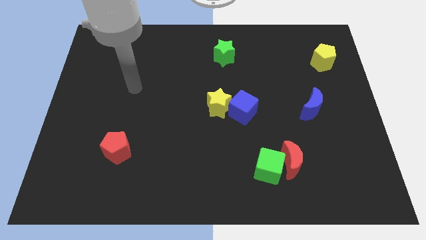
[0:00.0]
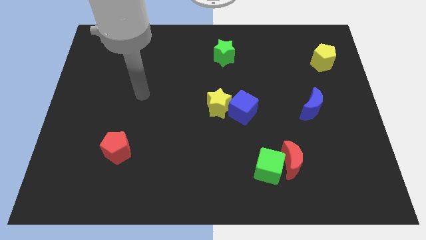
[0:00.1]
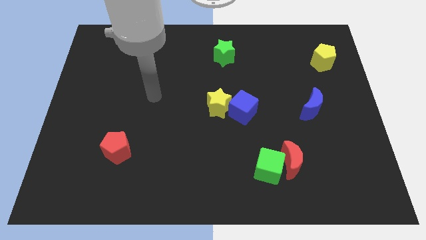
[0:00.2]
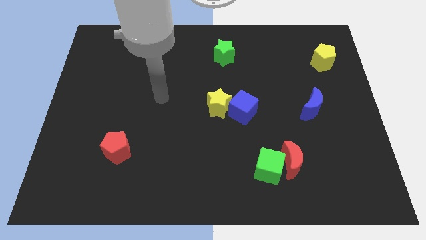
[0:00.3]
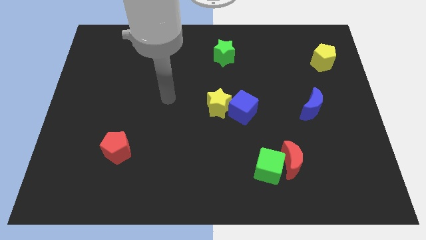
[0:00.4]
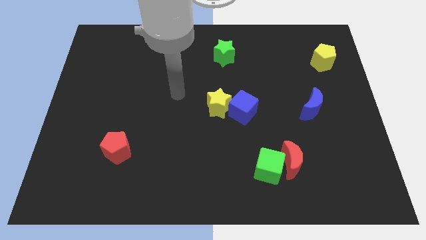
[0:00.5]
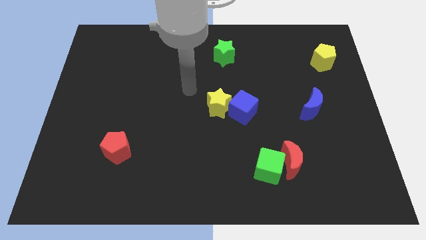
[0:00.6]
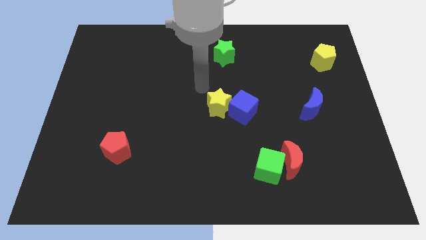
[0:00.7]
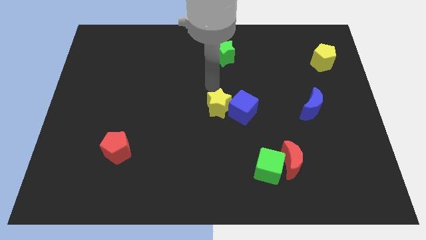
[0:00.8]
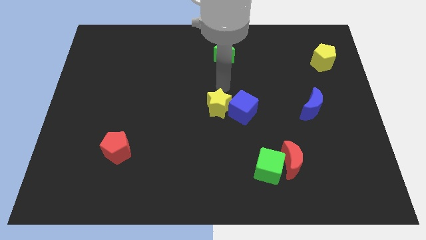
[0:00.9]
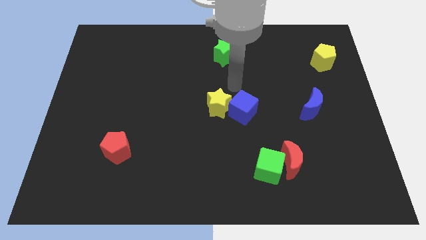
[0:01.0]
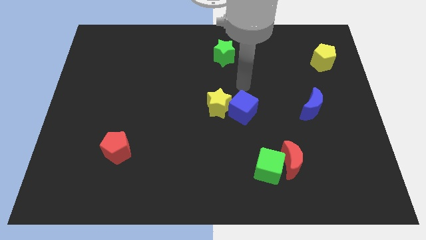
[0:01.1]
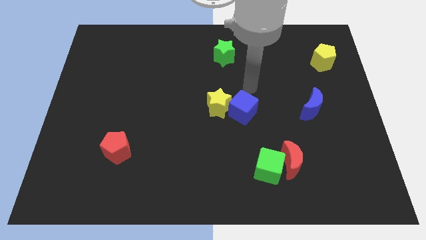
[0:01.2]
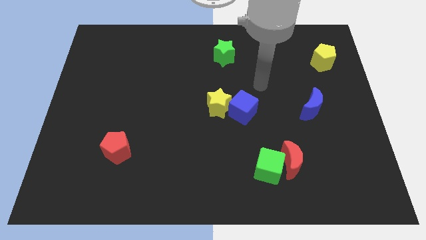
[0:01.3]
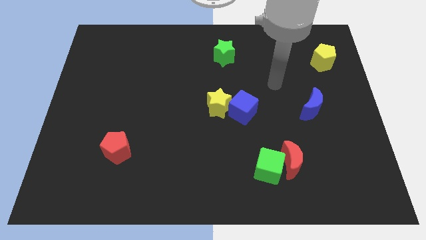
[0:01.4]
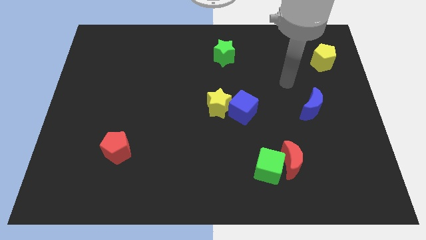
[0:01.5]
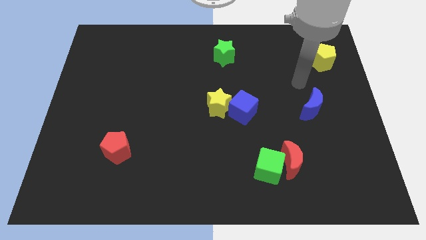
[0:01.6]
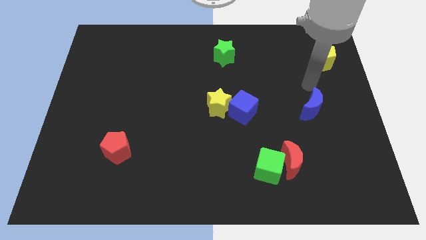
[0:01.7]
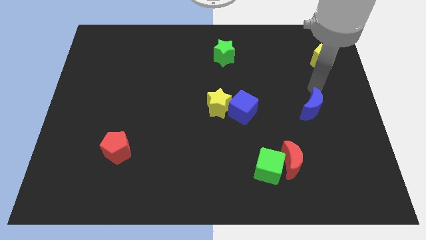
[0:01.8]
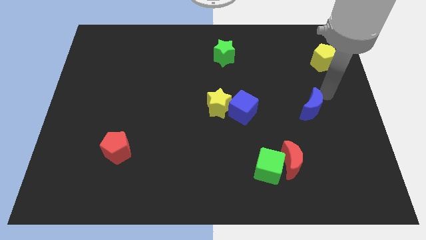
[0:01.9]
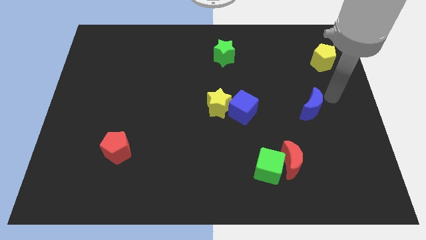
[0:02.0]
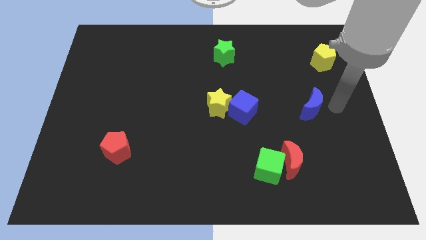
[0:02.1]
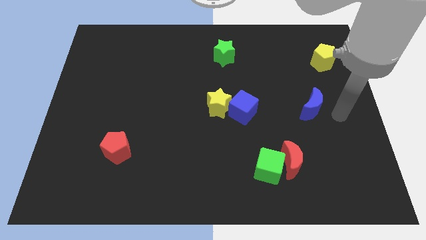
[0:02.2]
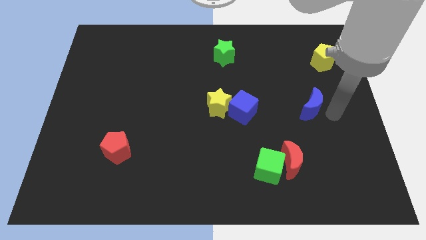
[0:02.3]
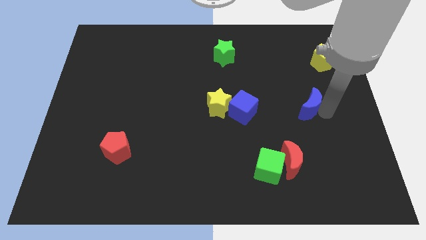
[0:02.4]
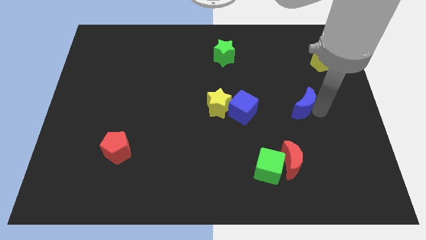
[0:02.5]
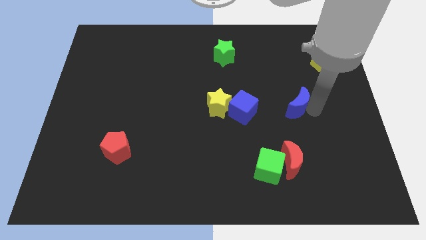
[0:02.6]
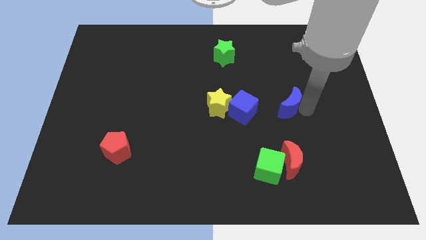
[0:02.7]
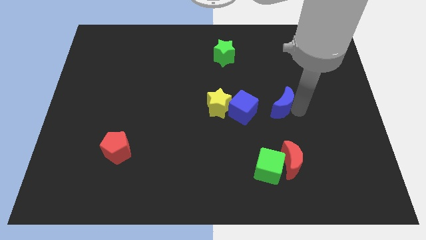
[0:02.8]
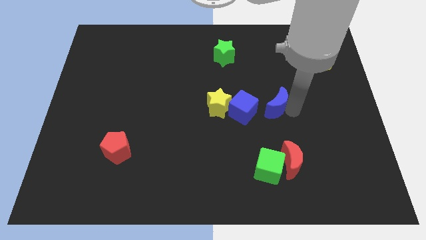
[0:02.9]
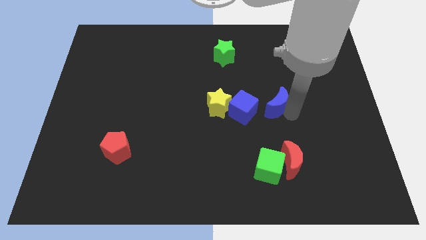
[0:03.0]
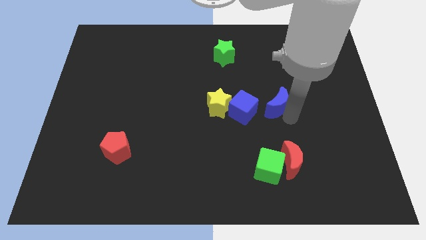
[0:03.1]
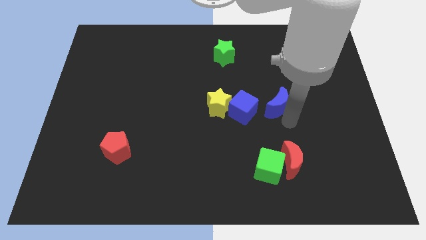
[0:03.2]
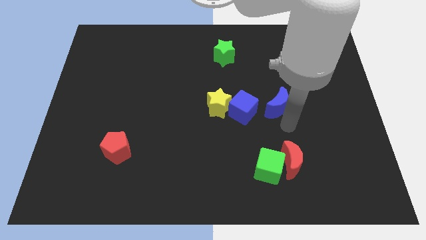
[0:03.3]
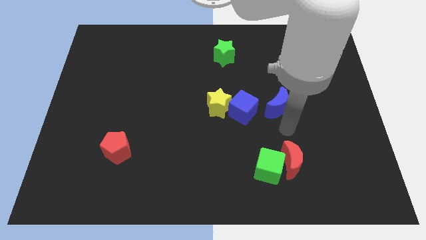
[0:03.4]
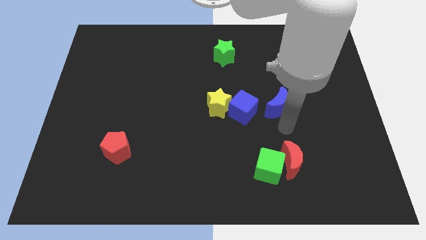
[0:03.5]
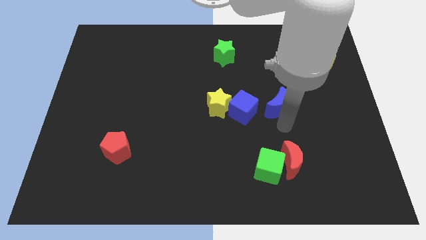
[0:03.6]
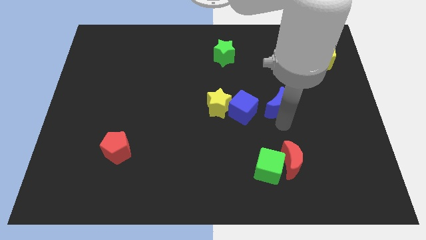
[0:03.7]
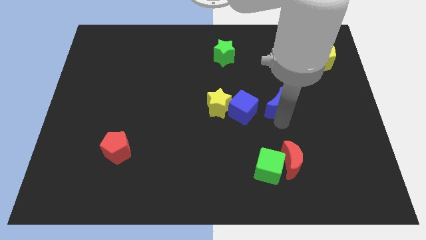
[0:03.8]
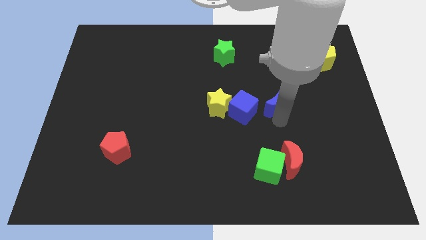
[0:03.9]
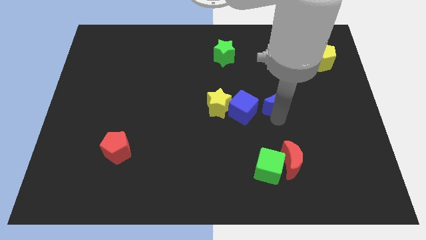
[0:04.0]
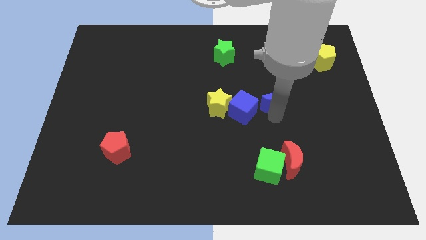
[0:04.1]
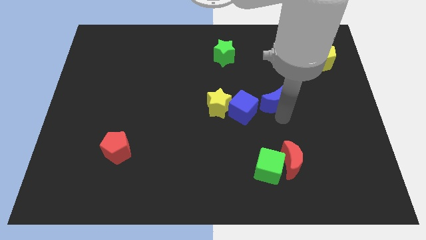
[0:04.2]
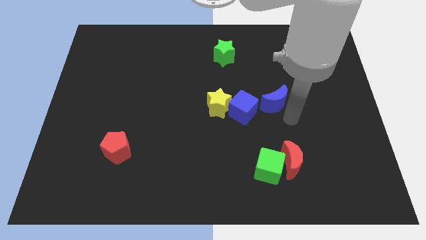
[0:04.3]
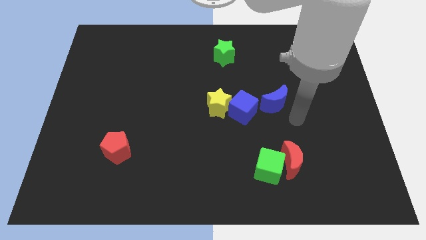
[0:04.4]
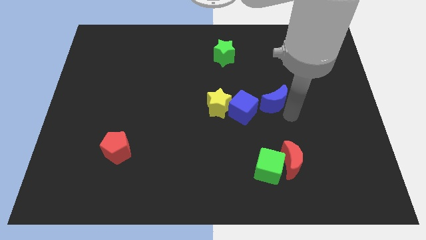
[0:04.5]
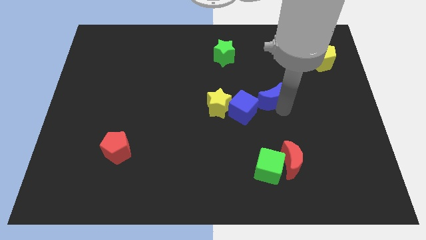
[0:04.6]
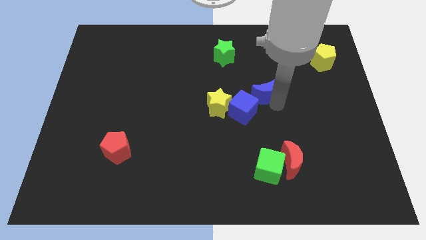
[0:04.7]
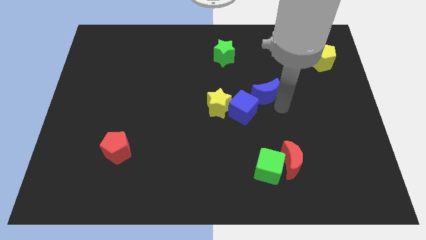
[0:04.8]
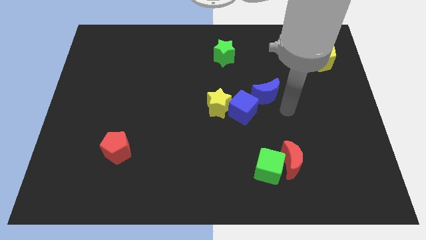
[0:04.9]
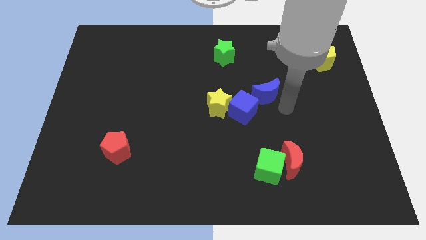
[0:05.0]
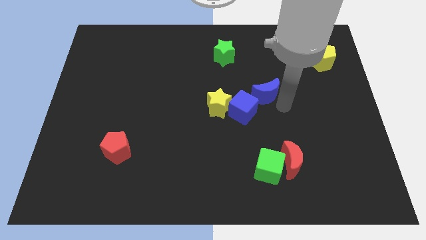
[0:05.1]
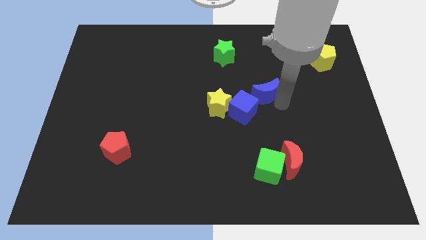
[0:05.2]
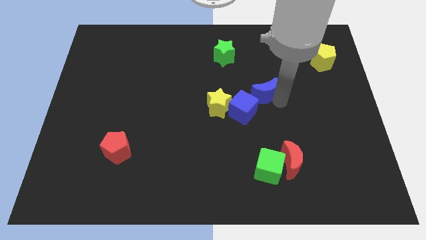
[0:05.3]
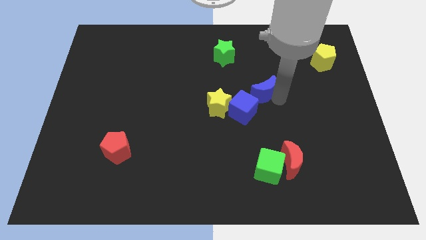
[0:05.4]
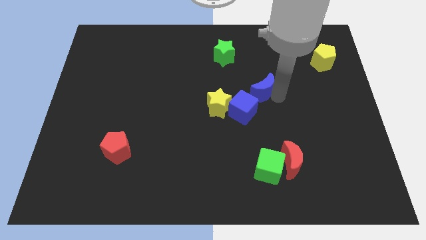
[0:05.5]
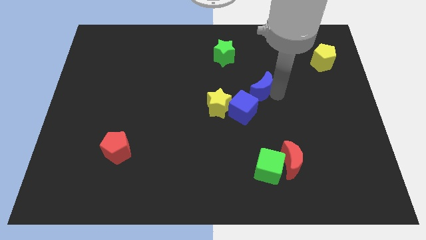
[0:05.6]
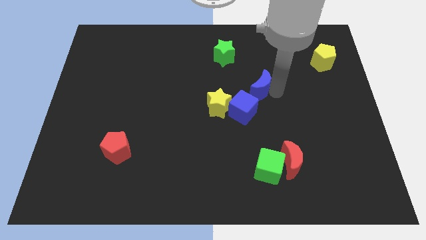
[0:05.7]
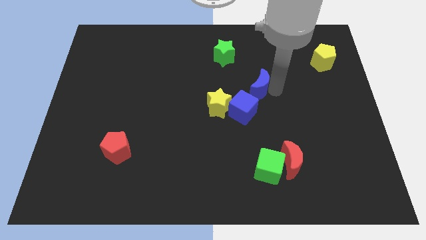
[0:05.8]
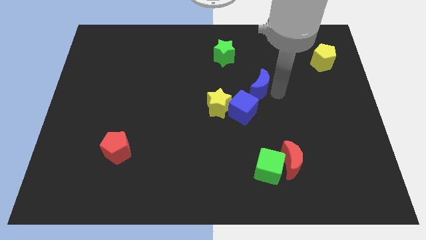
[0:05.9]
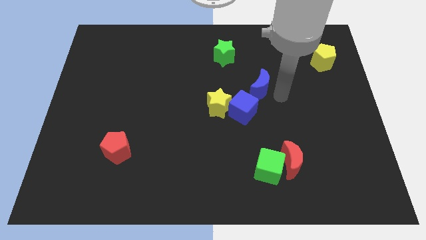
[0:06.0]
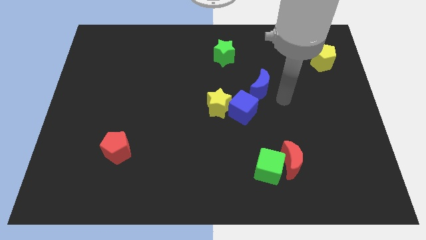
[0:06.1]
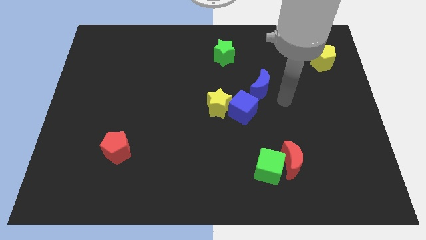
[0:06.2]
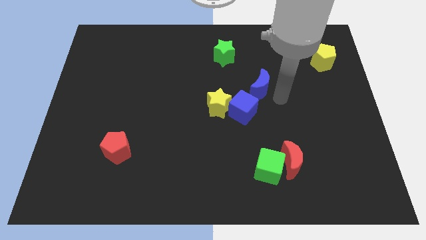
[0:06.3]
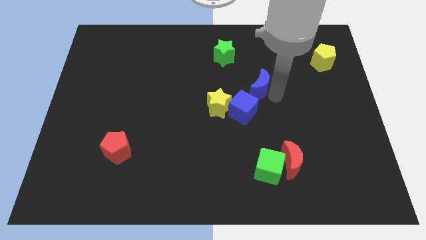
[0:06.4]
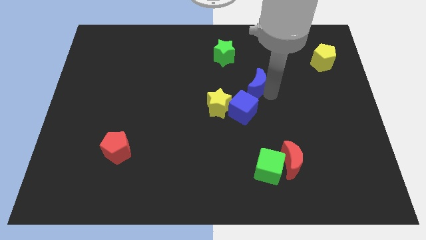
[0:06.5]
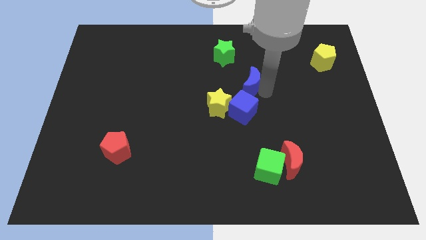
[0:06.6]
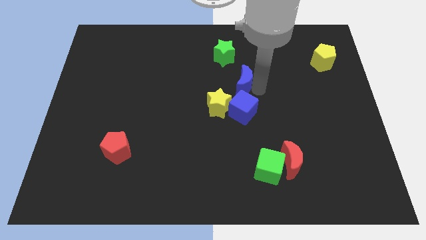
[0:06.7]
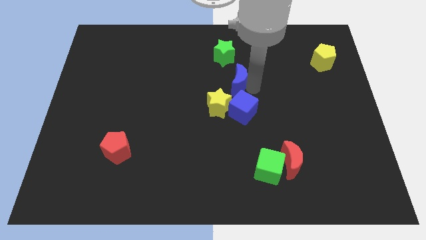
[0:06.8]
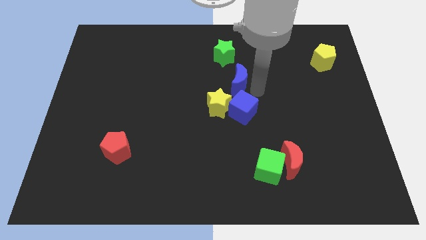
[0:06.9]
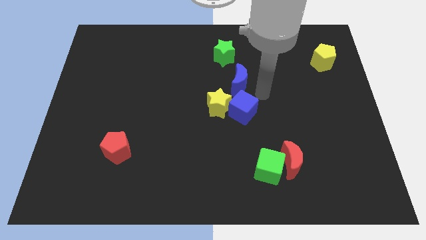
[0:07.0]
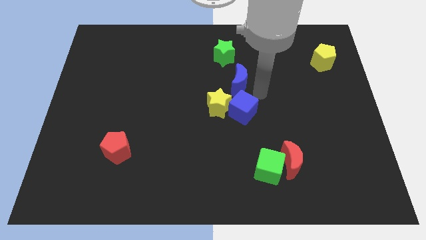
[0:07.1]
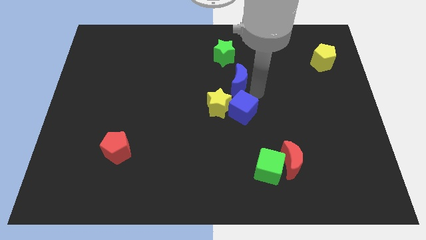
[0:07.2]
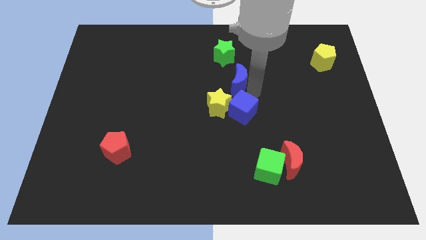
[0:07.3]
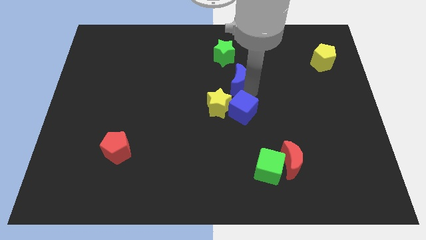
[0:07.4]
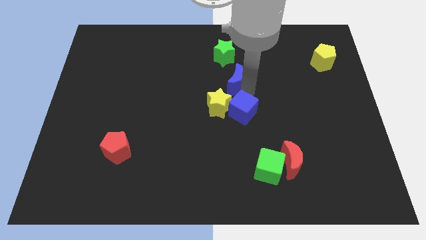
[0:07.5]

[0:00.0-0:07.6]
move the blue moon to the top of the yellow star
